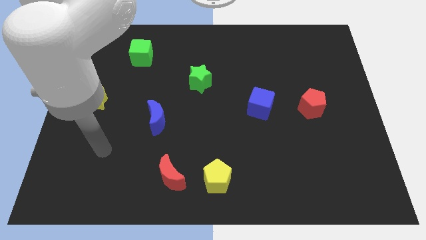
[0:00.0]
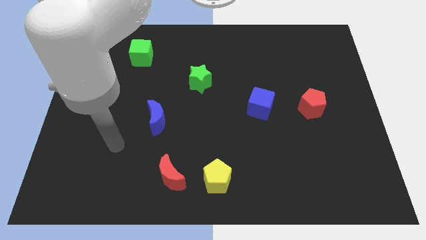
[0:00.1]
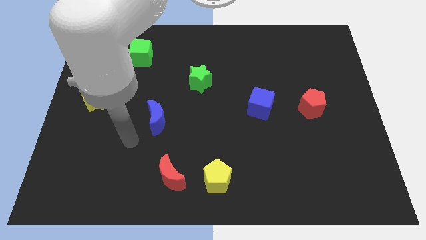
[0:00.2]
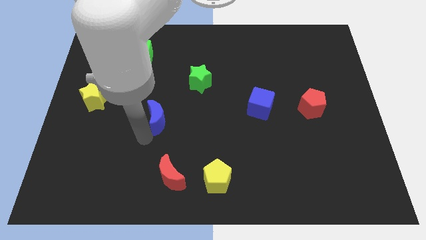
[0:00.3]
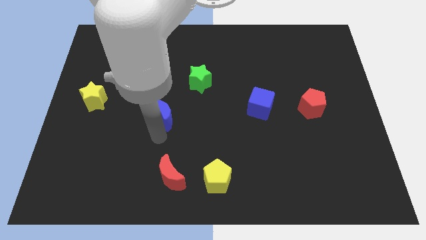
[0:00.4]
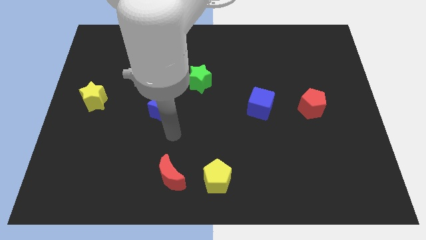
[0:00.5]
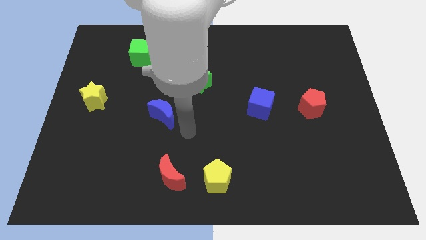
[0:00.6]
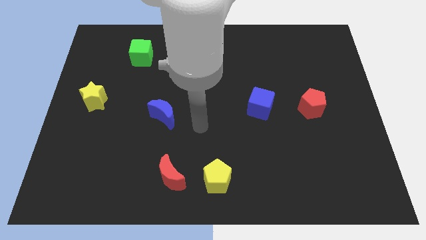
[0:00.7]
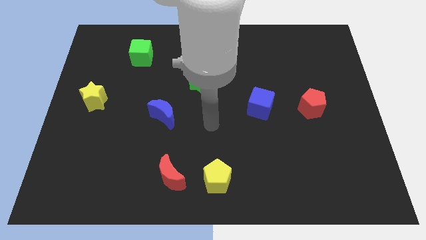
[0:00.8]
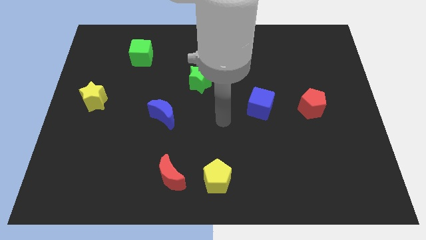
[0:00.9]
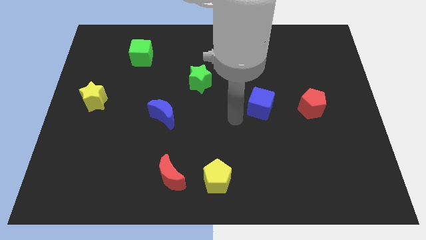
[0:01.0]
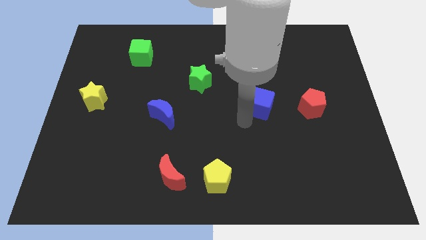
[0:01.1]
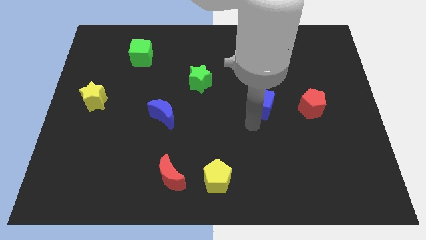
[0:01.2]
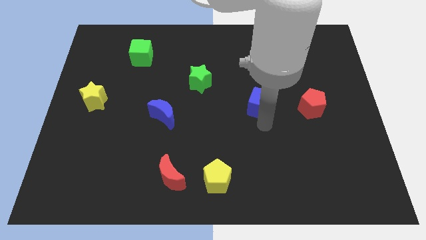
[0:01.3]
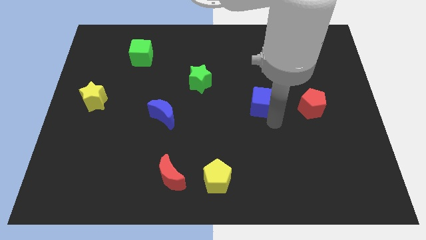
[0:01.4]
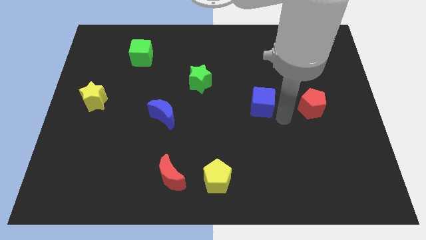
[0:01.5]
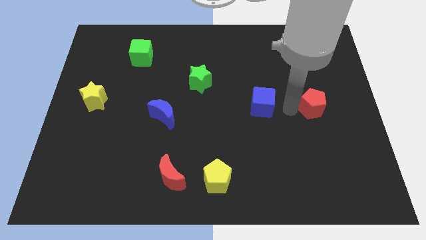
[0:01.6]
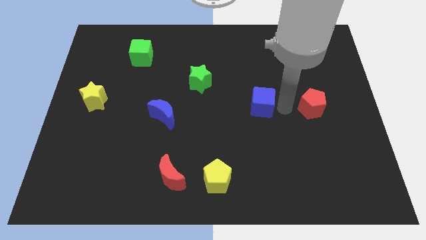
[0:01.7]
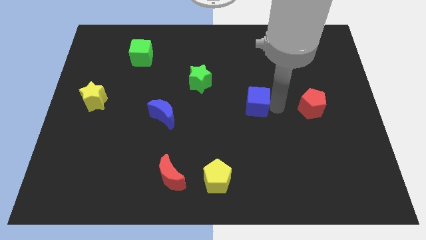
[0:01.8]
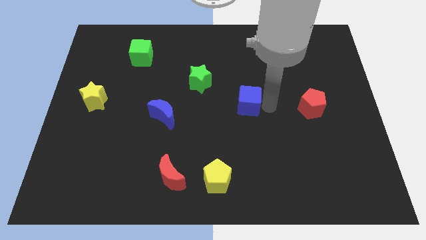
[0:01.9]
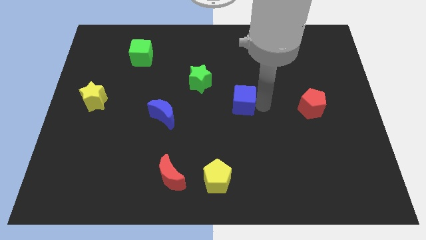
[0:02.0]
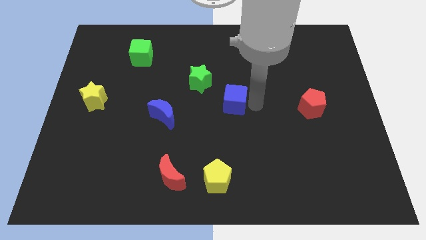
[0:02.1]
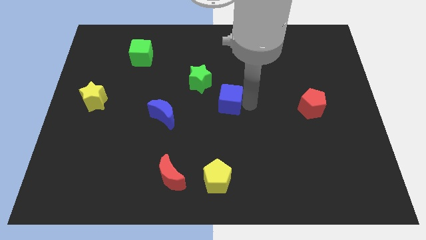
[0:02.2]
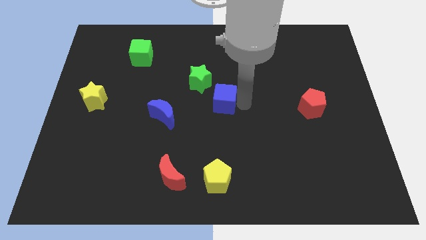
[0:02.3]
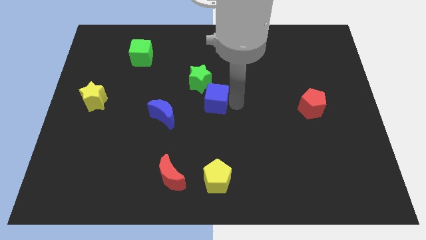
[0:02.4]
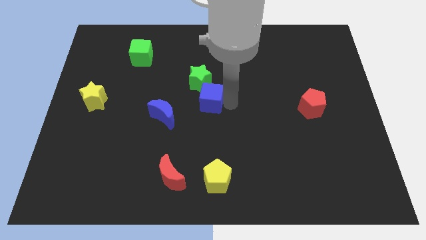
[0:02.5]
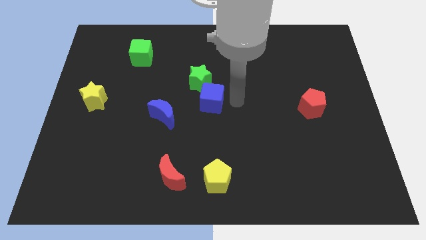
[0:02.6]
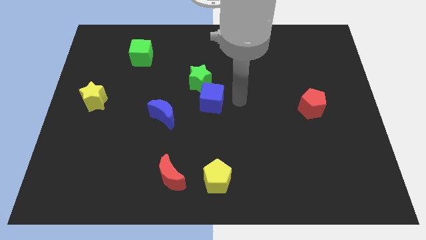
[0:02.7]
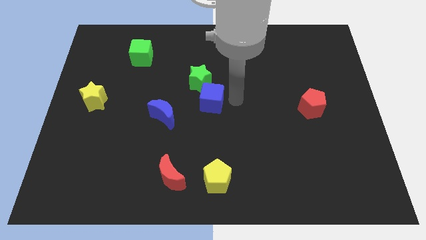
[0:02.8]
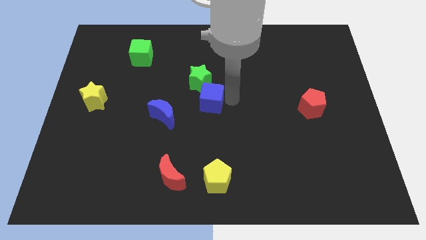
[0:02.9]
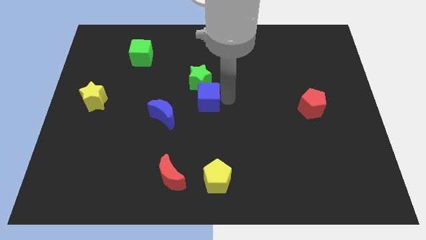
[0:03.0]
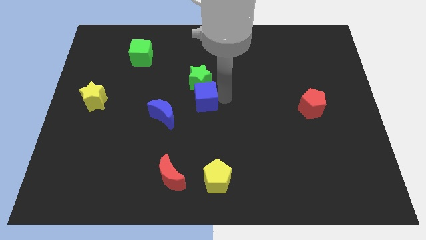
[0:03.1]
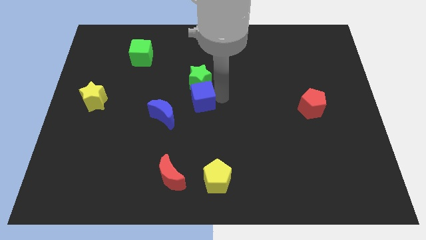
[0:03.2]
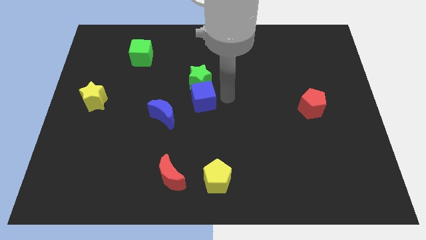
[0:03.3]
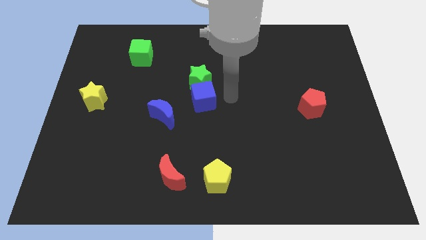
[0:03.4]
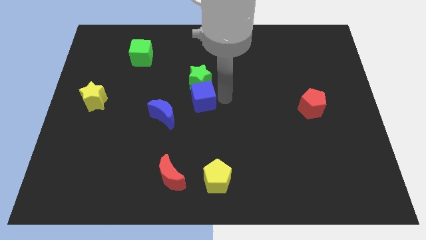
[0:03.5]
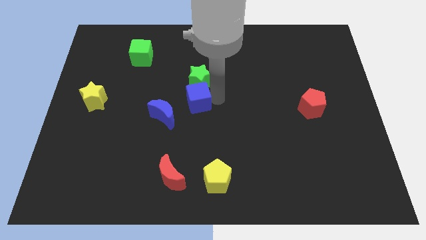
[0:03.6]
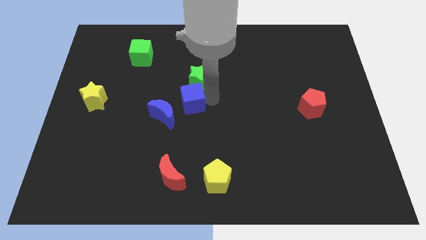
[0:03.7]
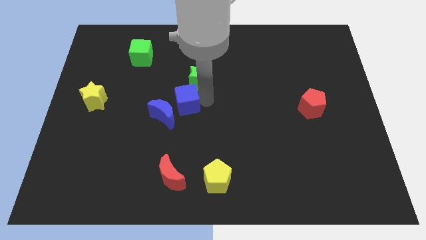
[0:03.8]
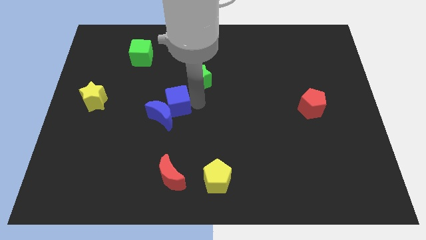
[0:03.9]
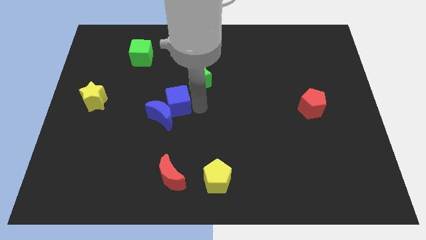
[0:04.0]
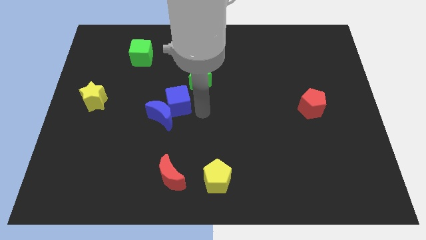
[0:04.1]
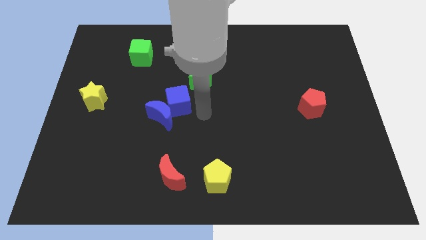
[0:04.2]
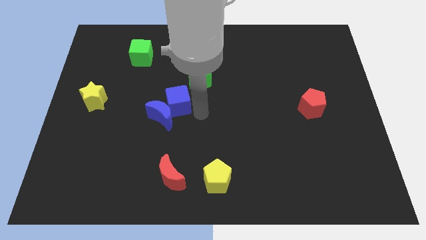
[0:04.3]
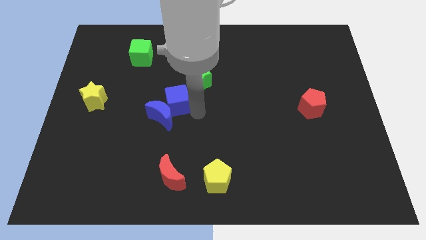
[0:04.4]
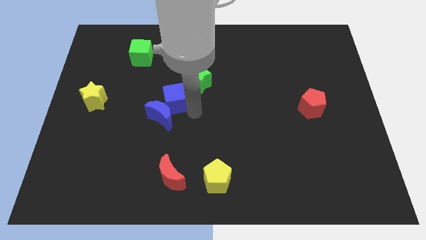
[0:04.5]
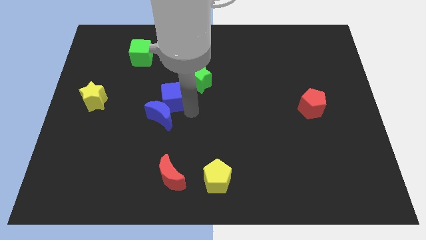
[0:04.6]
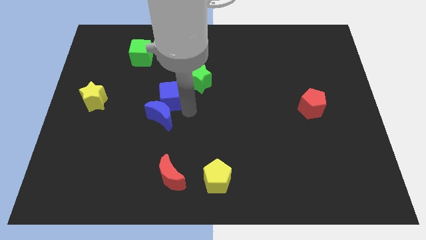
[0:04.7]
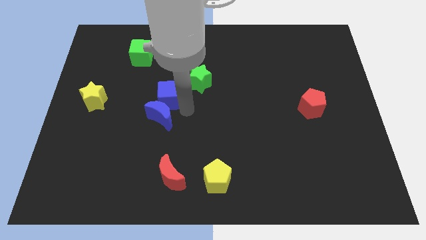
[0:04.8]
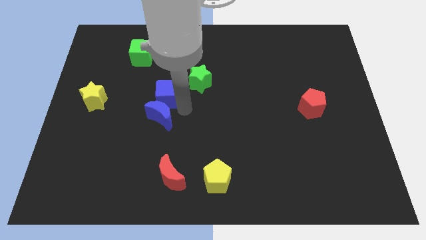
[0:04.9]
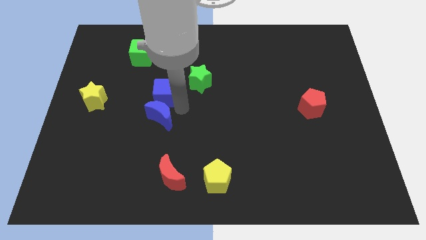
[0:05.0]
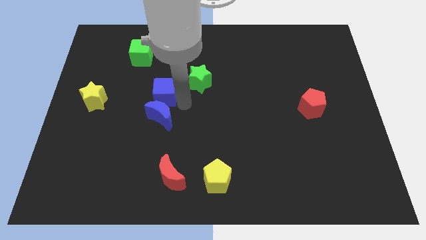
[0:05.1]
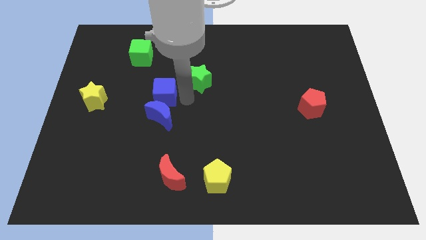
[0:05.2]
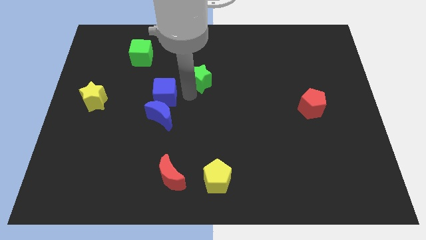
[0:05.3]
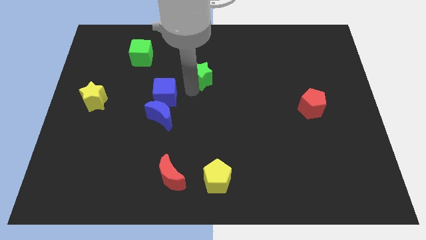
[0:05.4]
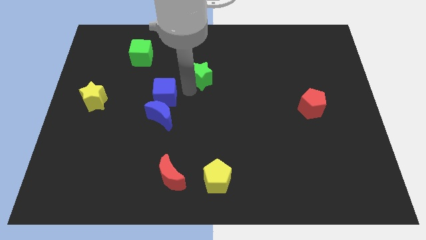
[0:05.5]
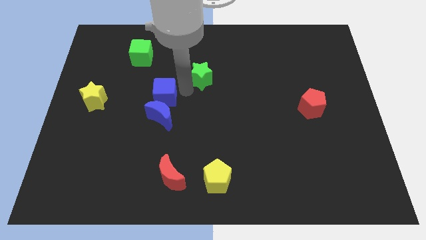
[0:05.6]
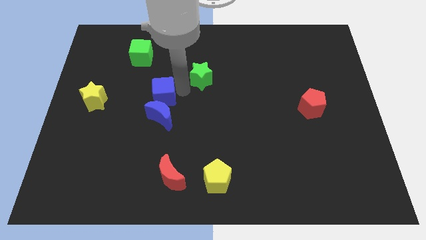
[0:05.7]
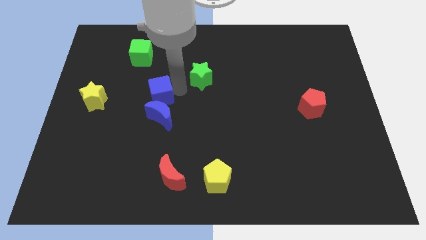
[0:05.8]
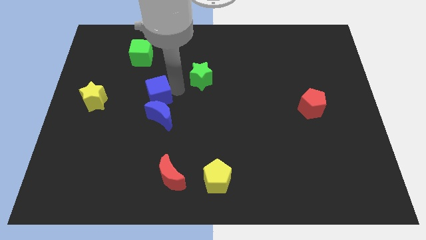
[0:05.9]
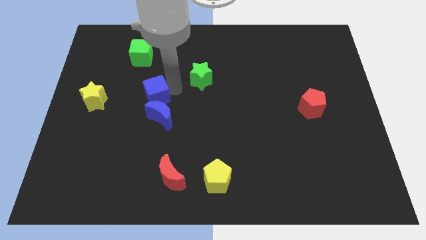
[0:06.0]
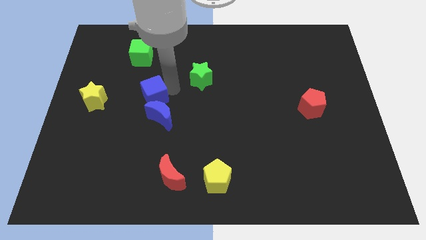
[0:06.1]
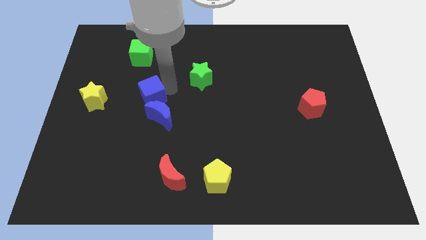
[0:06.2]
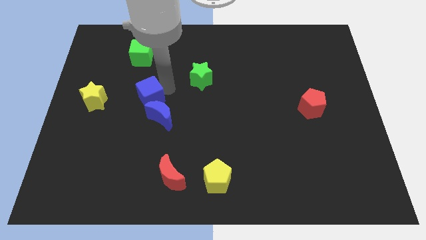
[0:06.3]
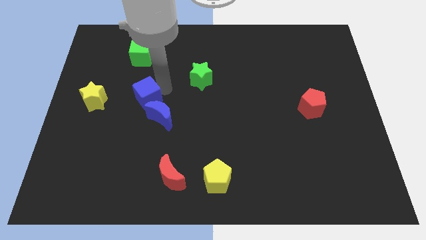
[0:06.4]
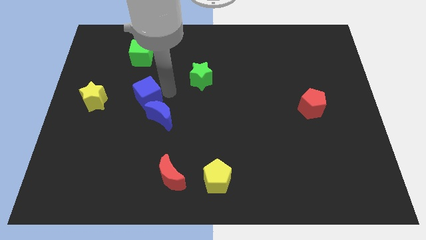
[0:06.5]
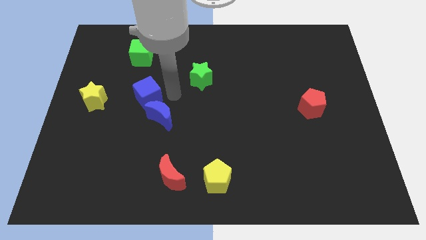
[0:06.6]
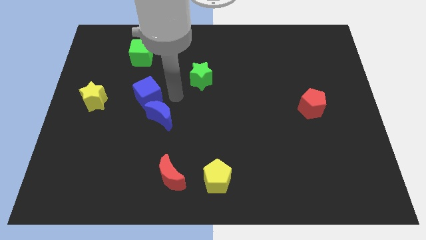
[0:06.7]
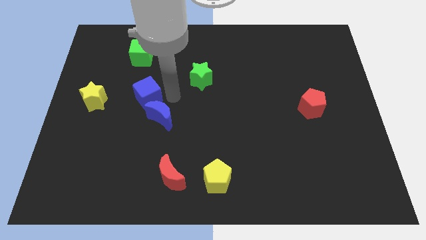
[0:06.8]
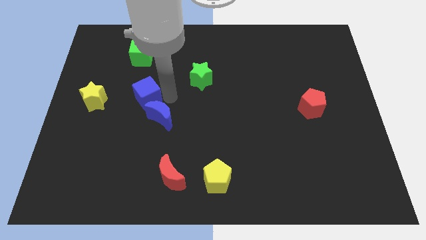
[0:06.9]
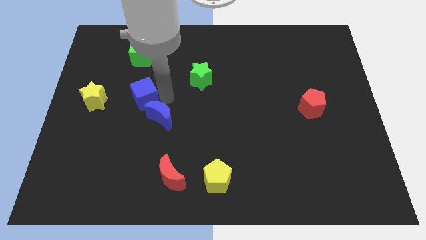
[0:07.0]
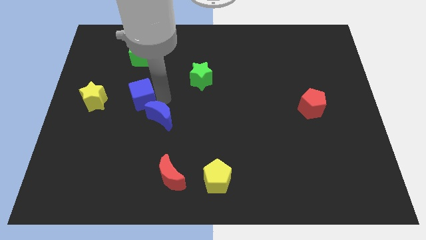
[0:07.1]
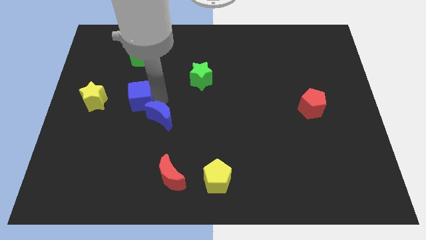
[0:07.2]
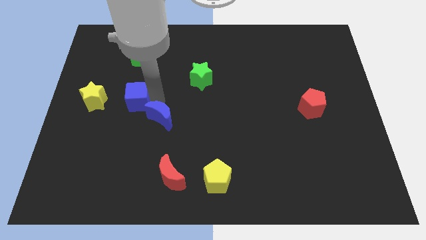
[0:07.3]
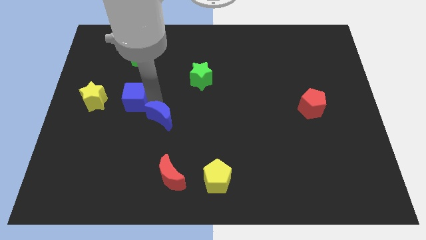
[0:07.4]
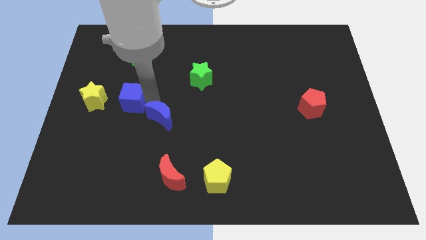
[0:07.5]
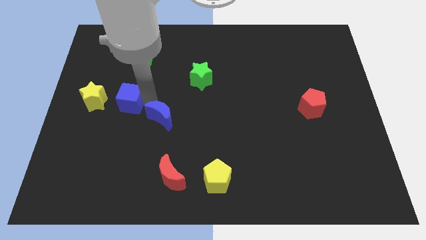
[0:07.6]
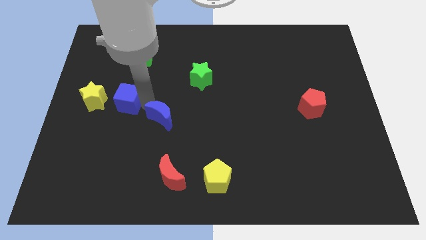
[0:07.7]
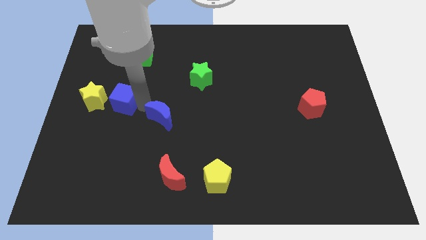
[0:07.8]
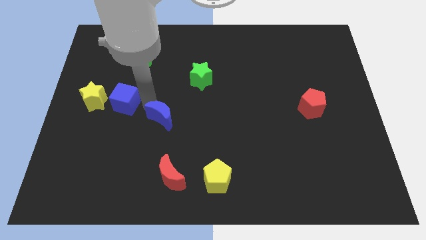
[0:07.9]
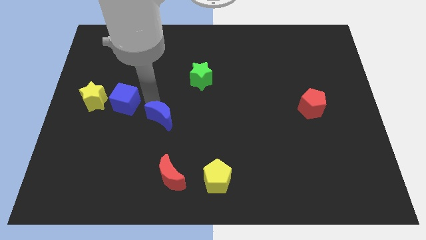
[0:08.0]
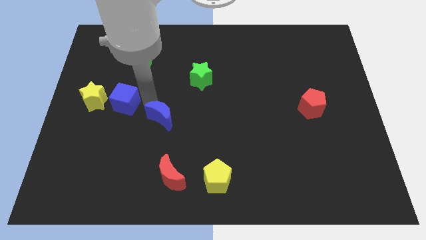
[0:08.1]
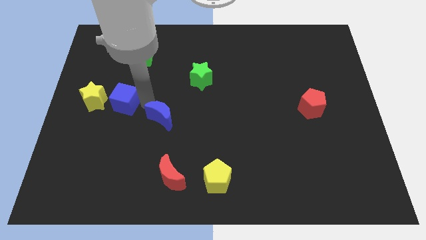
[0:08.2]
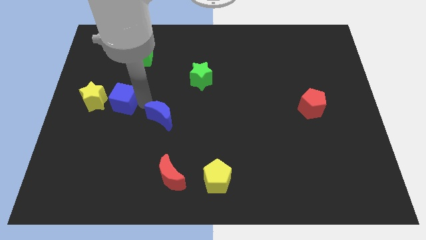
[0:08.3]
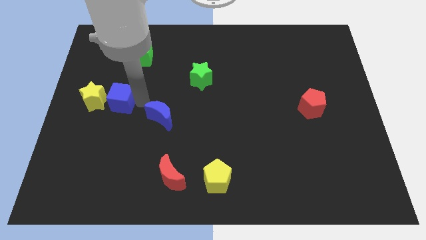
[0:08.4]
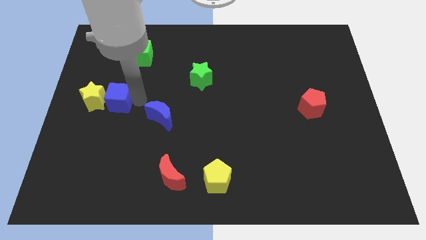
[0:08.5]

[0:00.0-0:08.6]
put the blue cube towards the yellow star
